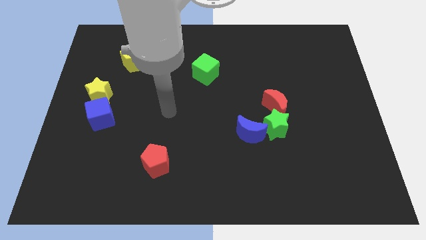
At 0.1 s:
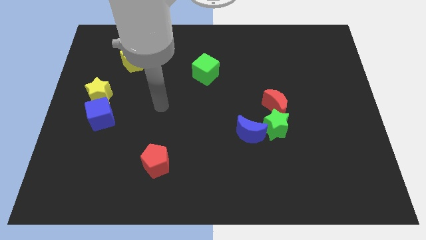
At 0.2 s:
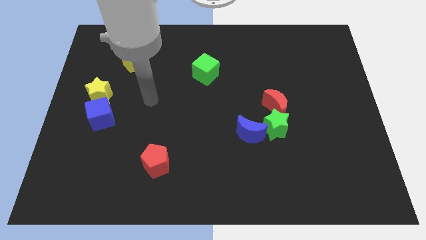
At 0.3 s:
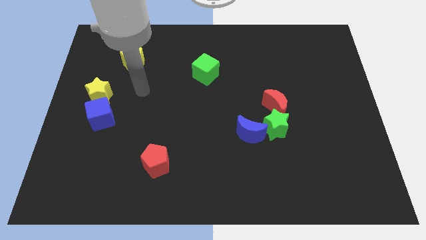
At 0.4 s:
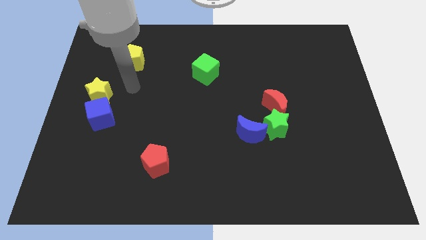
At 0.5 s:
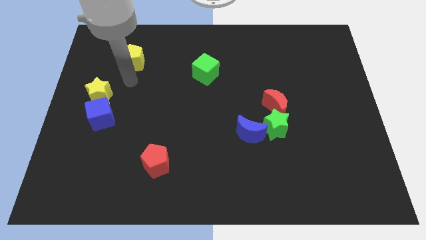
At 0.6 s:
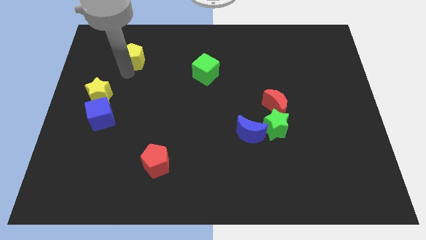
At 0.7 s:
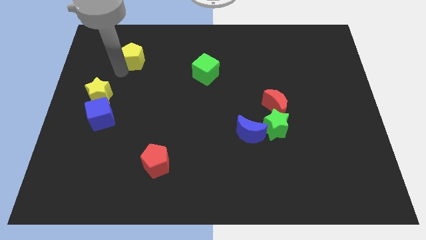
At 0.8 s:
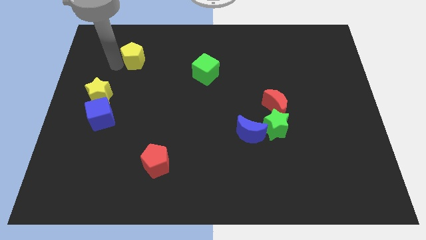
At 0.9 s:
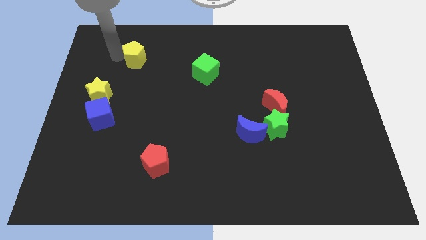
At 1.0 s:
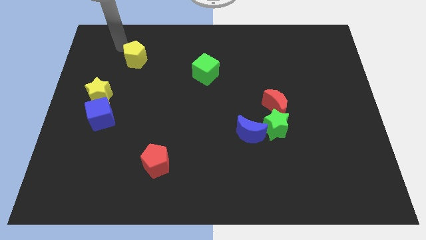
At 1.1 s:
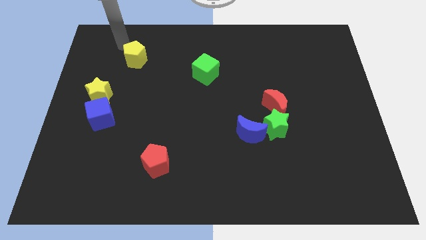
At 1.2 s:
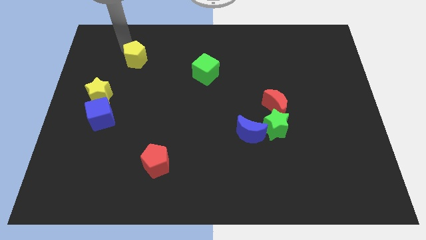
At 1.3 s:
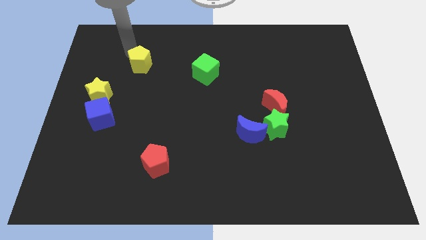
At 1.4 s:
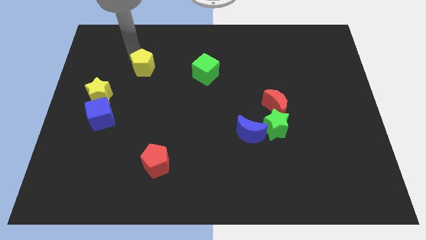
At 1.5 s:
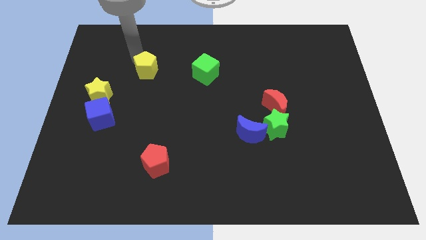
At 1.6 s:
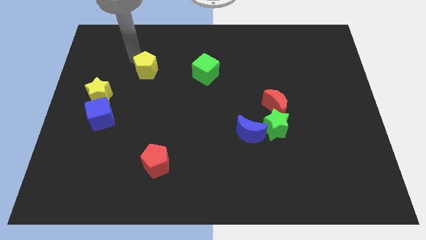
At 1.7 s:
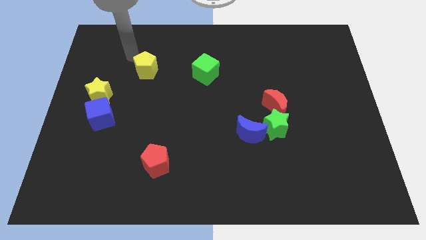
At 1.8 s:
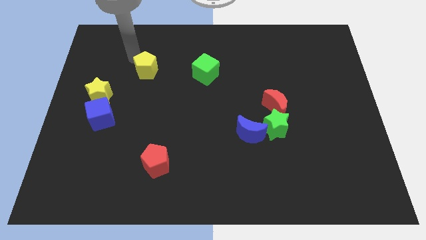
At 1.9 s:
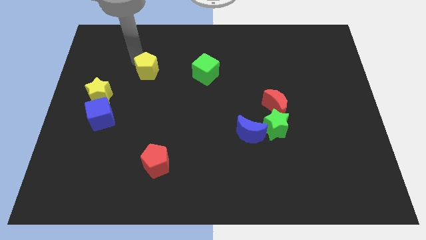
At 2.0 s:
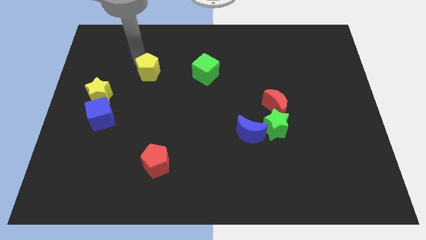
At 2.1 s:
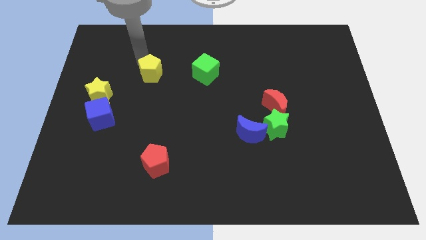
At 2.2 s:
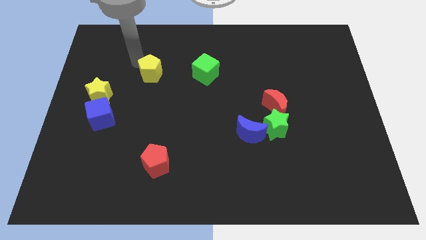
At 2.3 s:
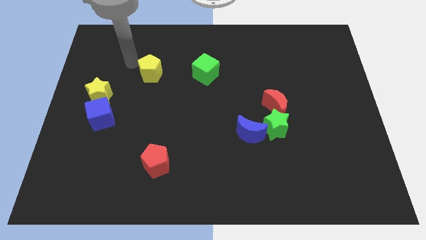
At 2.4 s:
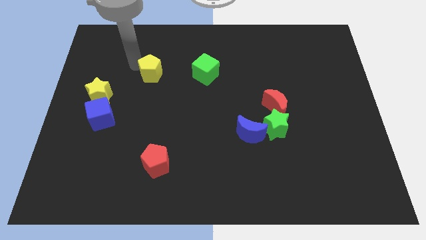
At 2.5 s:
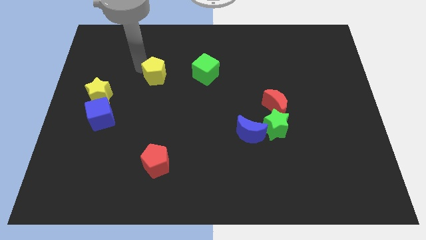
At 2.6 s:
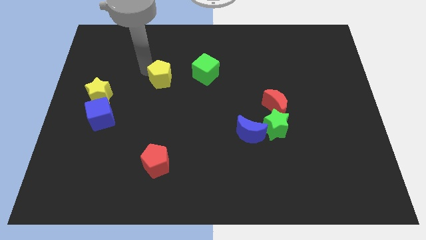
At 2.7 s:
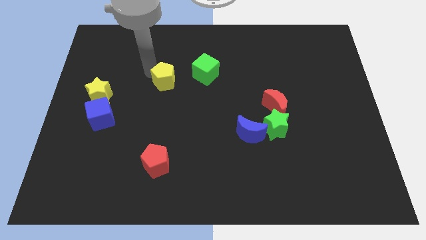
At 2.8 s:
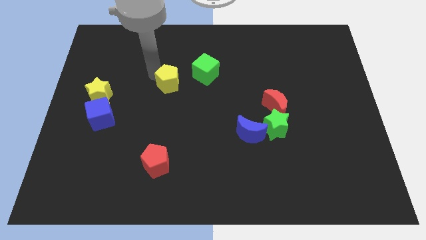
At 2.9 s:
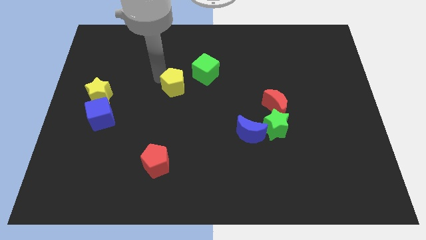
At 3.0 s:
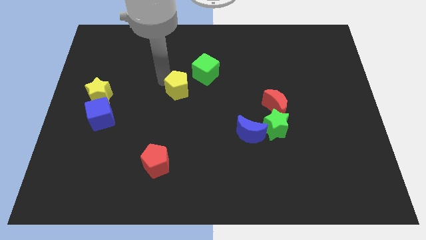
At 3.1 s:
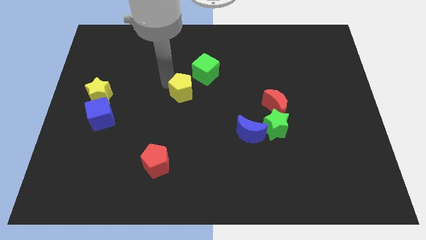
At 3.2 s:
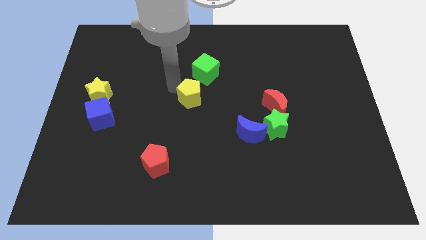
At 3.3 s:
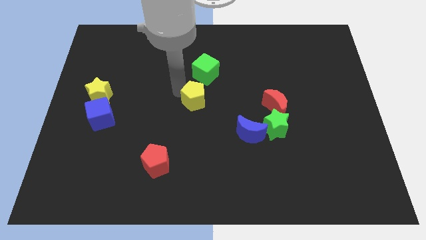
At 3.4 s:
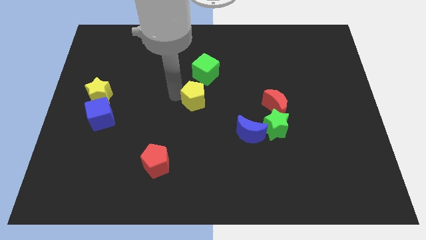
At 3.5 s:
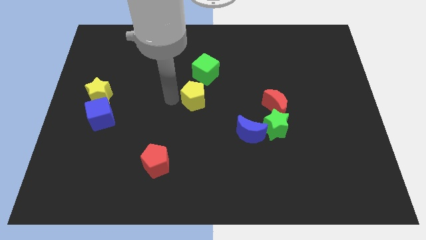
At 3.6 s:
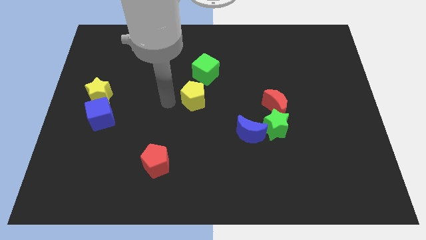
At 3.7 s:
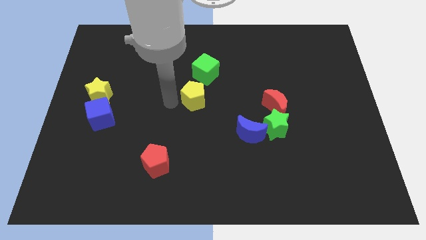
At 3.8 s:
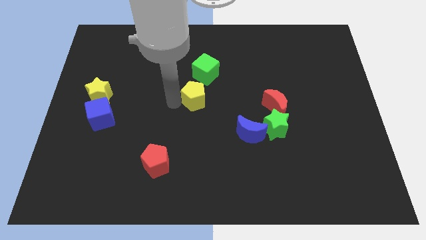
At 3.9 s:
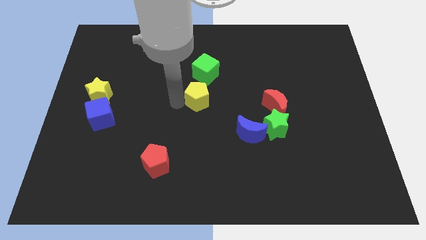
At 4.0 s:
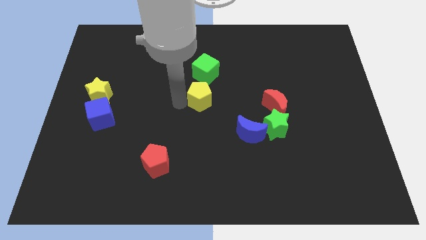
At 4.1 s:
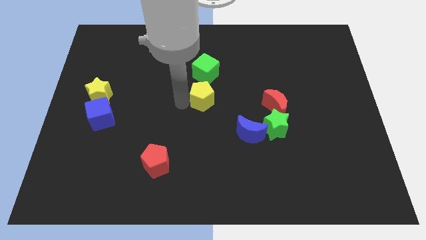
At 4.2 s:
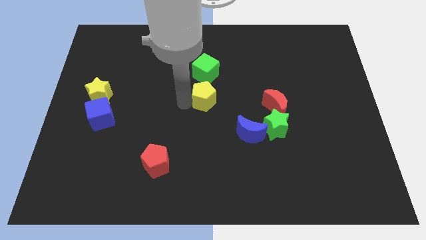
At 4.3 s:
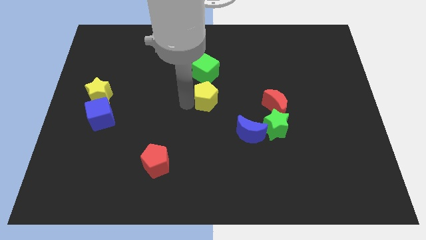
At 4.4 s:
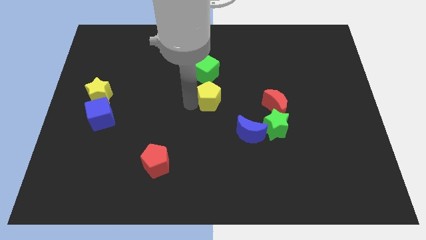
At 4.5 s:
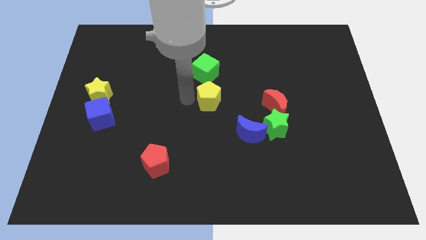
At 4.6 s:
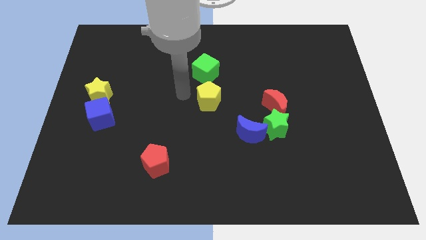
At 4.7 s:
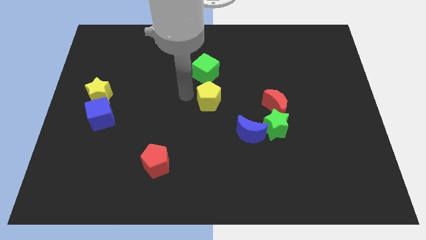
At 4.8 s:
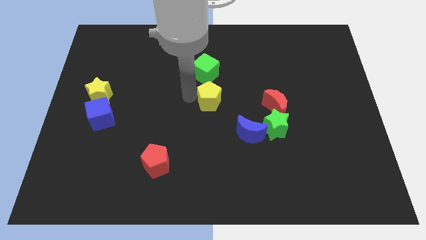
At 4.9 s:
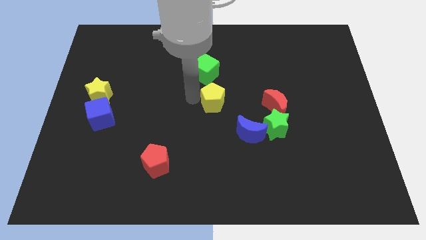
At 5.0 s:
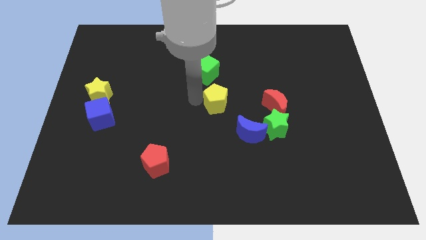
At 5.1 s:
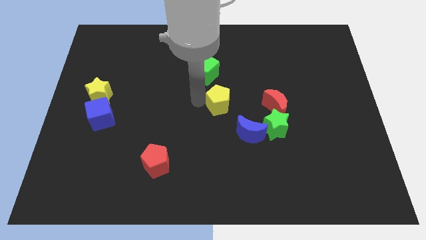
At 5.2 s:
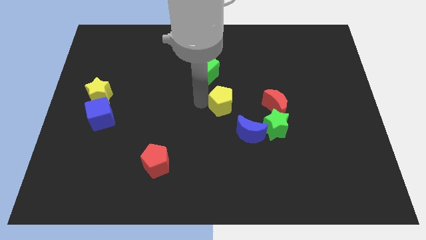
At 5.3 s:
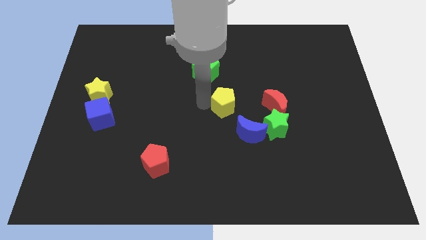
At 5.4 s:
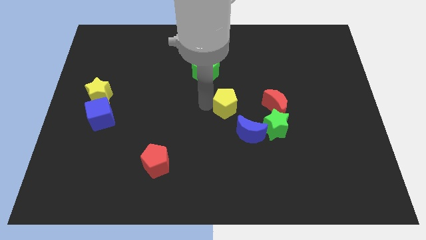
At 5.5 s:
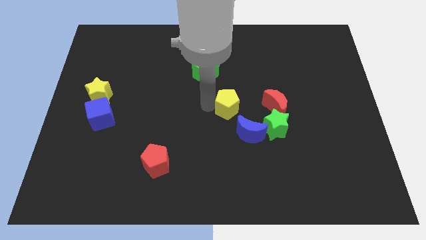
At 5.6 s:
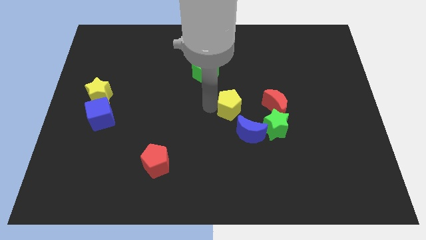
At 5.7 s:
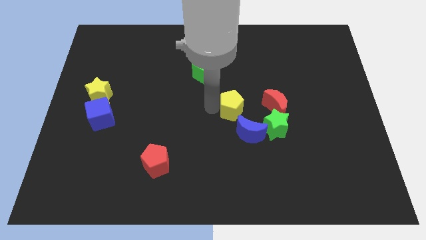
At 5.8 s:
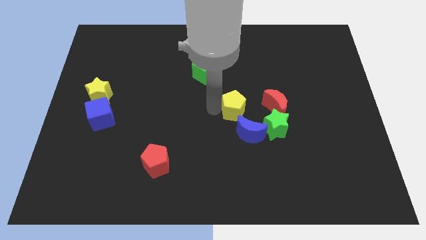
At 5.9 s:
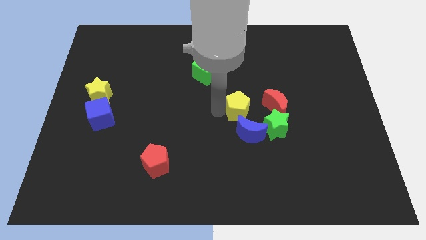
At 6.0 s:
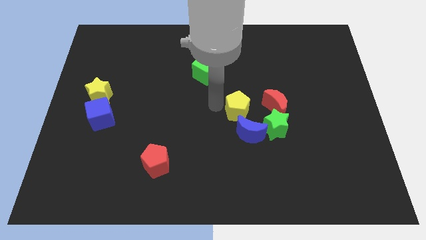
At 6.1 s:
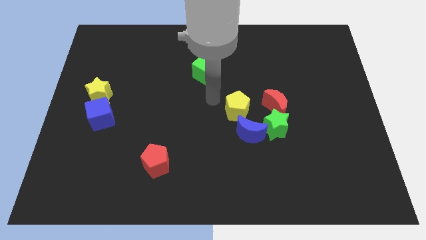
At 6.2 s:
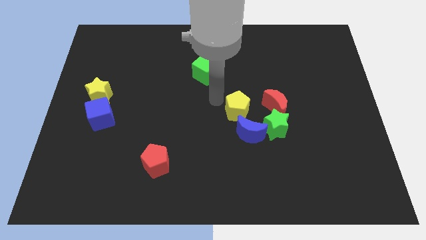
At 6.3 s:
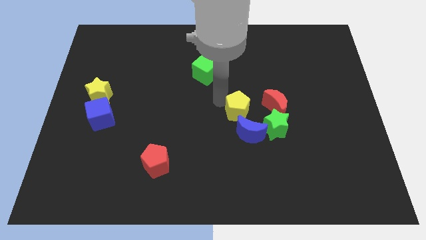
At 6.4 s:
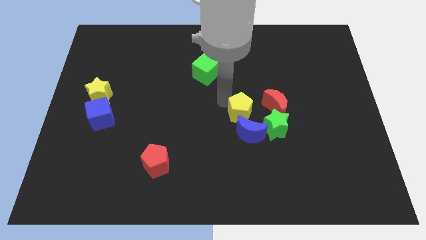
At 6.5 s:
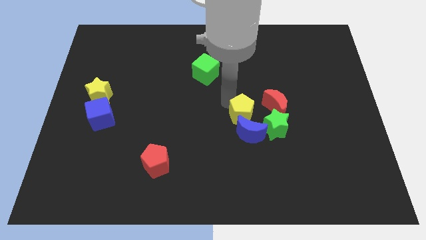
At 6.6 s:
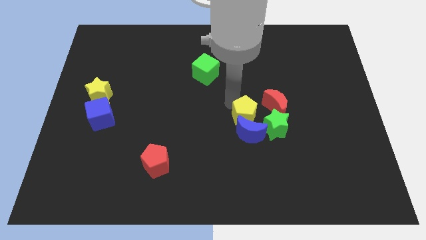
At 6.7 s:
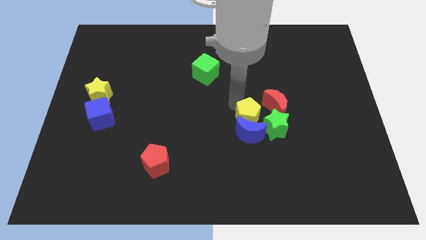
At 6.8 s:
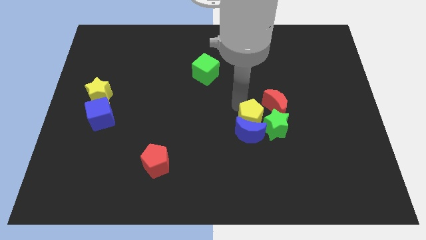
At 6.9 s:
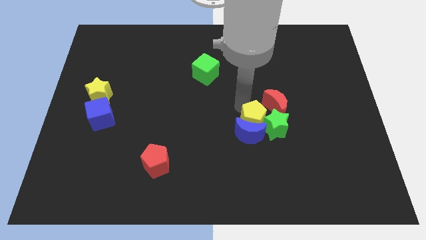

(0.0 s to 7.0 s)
move the yellow pentagon close to the green star
